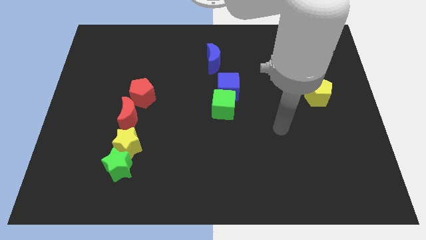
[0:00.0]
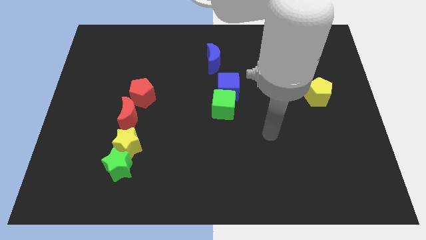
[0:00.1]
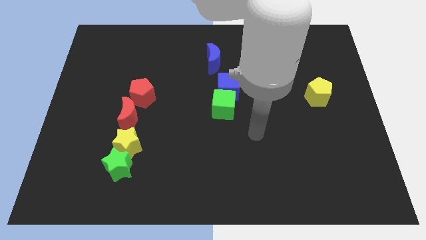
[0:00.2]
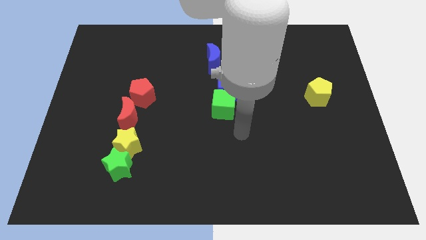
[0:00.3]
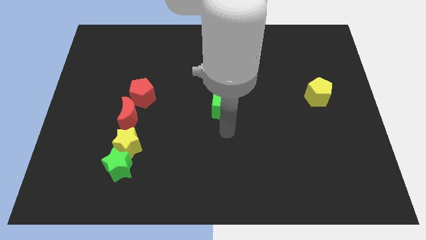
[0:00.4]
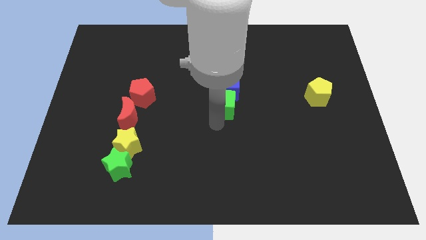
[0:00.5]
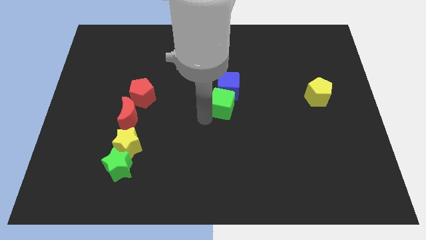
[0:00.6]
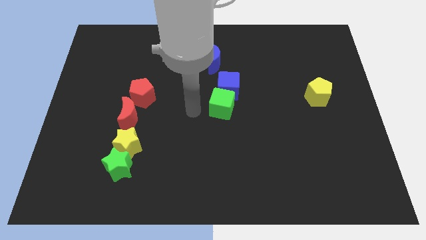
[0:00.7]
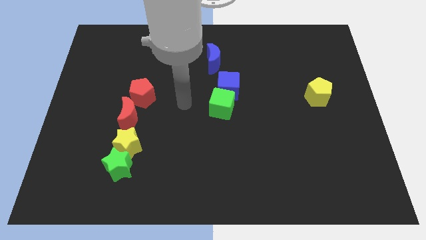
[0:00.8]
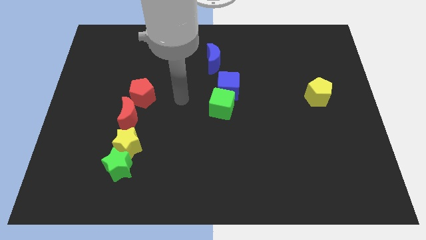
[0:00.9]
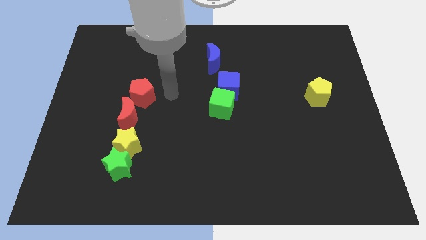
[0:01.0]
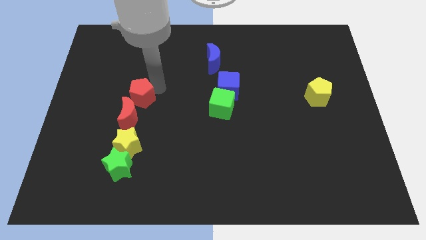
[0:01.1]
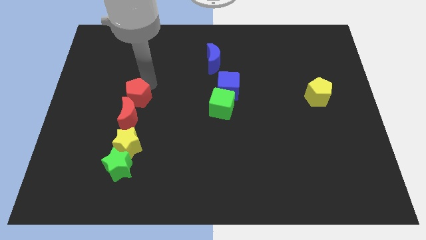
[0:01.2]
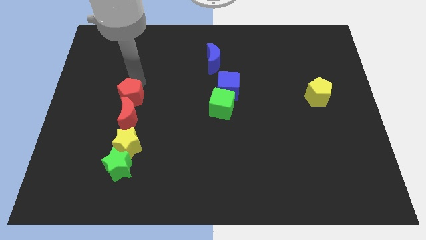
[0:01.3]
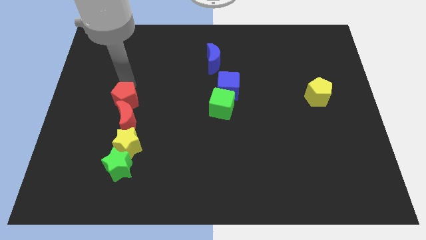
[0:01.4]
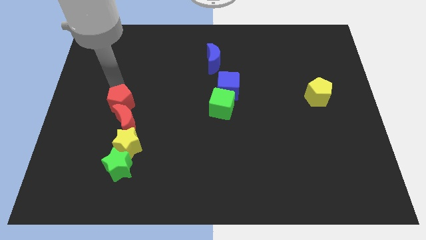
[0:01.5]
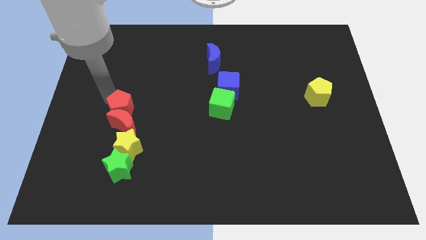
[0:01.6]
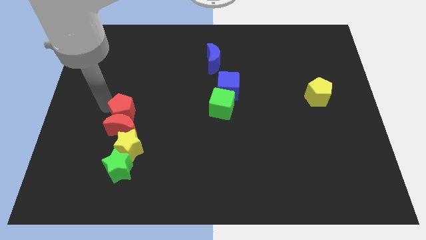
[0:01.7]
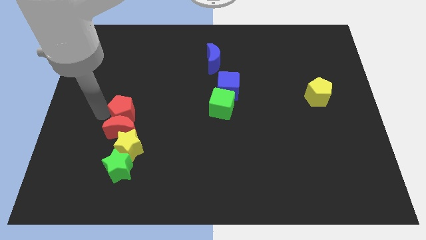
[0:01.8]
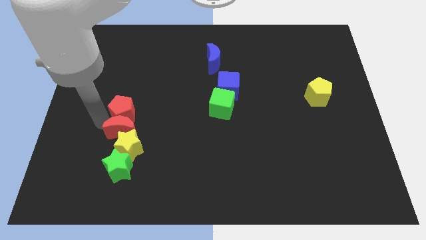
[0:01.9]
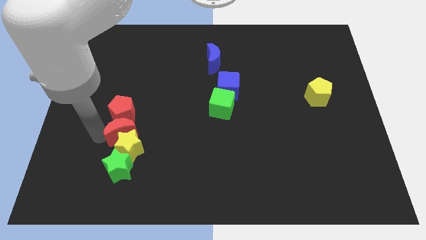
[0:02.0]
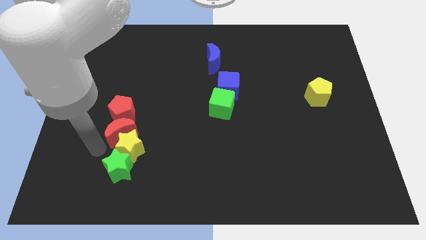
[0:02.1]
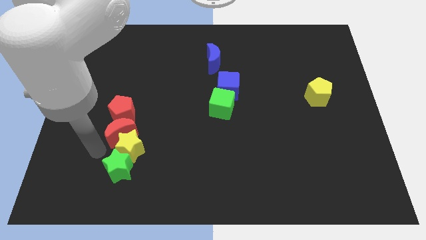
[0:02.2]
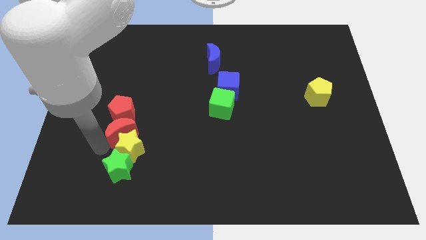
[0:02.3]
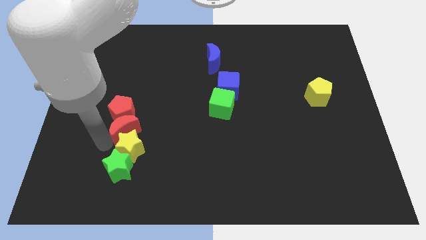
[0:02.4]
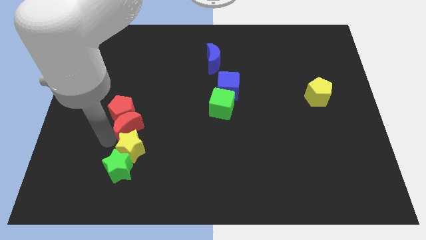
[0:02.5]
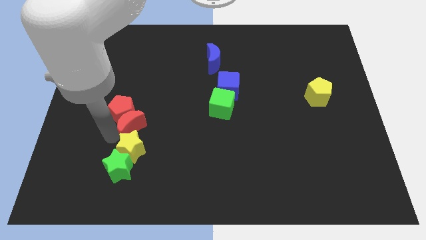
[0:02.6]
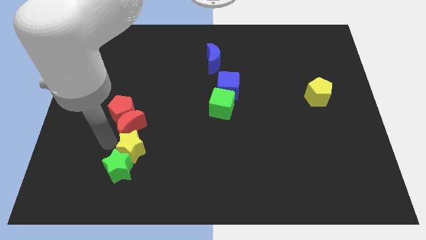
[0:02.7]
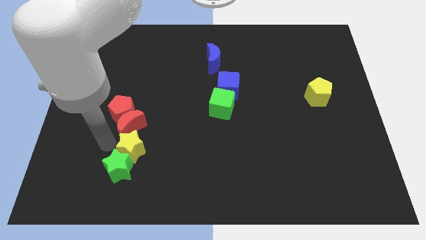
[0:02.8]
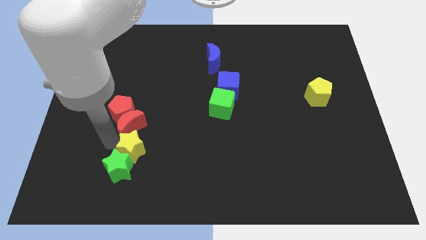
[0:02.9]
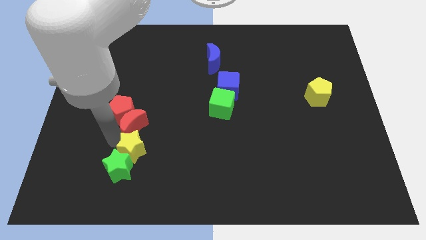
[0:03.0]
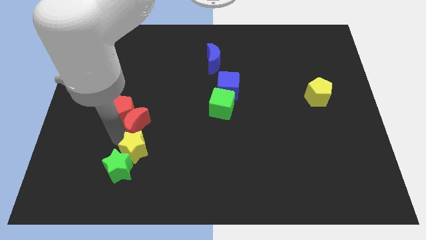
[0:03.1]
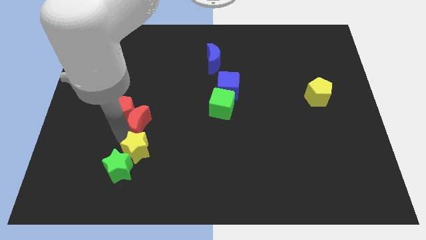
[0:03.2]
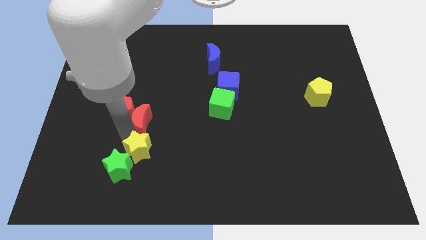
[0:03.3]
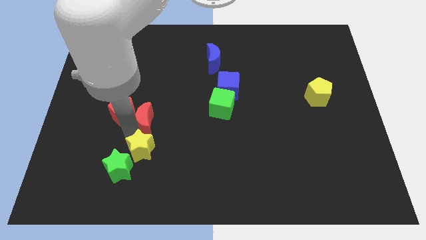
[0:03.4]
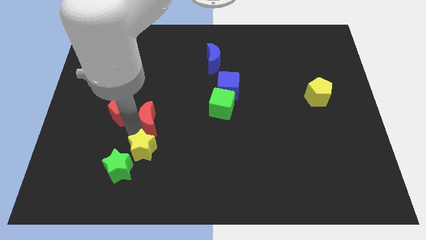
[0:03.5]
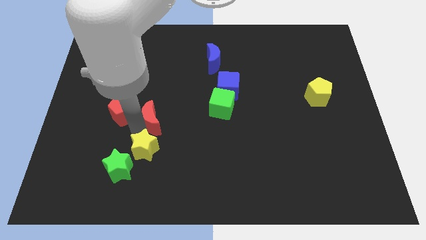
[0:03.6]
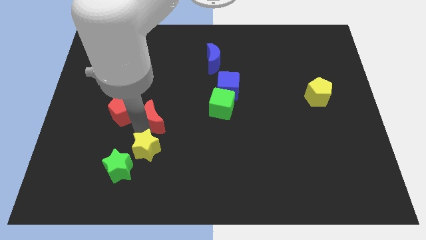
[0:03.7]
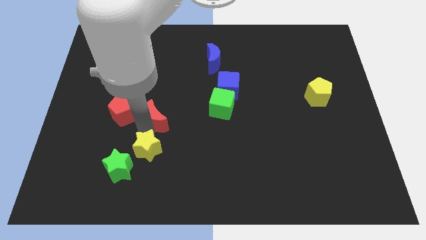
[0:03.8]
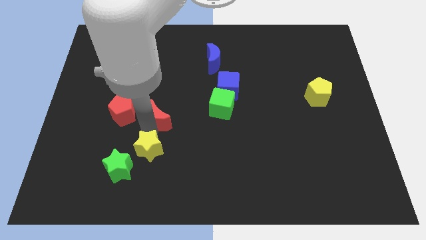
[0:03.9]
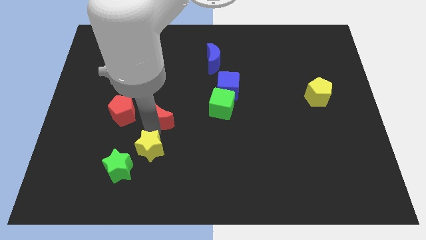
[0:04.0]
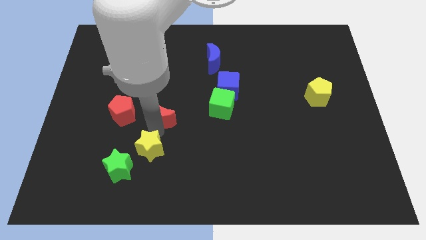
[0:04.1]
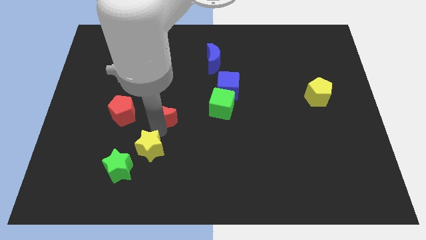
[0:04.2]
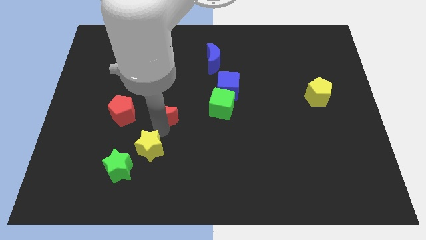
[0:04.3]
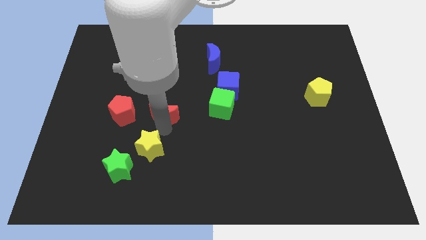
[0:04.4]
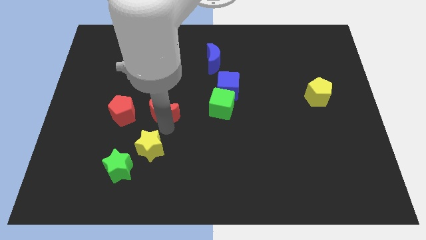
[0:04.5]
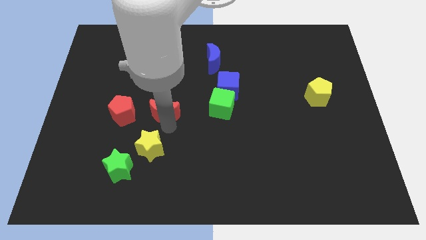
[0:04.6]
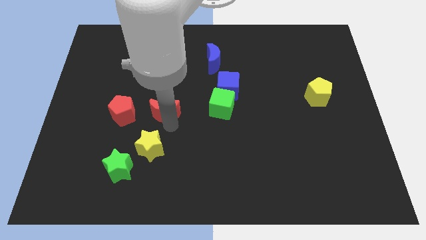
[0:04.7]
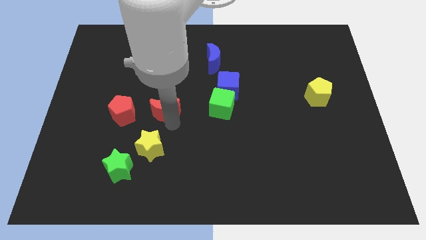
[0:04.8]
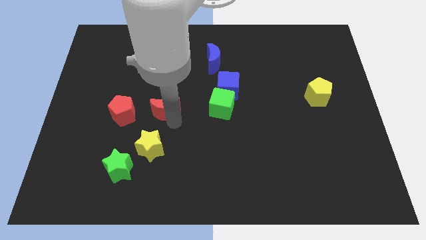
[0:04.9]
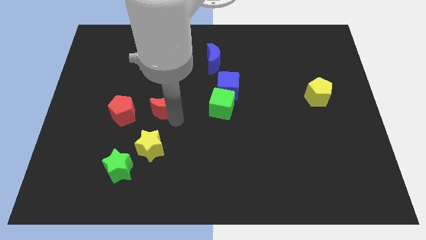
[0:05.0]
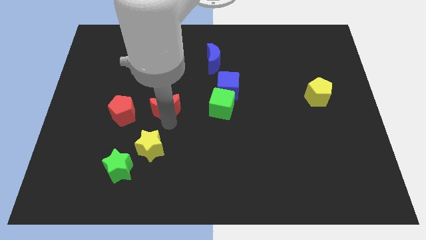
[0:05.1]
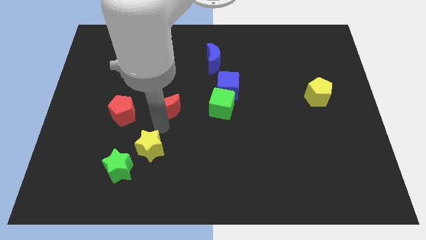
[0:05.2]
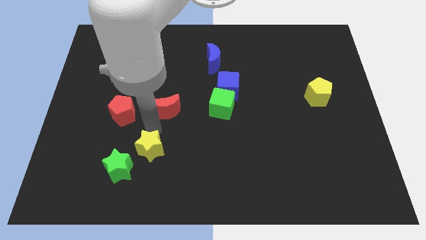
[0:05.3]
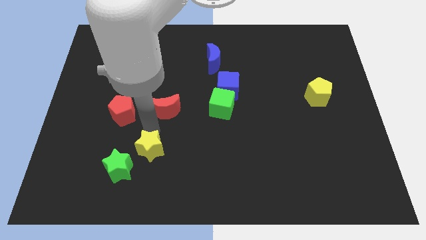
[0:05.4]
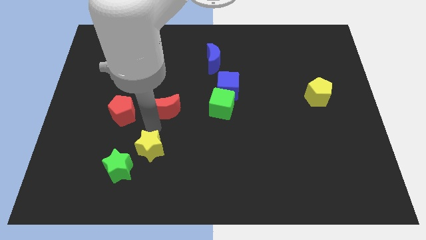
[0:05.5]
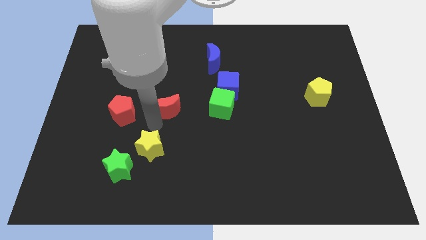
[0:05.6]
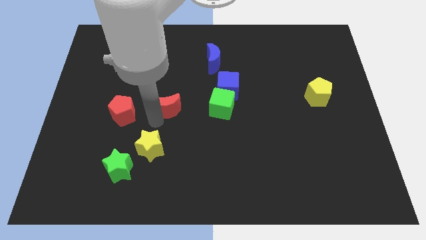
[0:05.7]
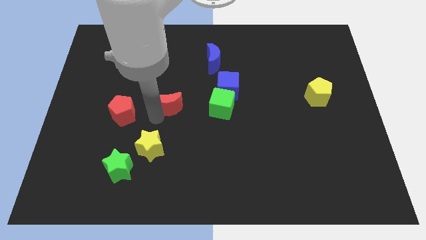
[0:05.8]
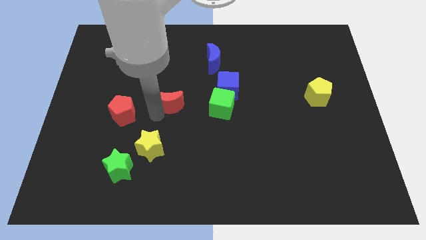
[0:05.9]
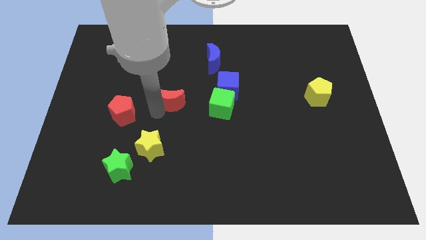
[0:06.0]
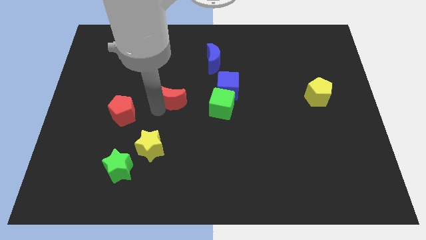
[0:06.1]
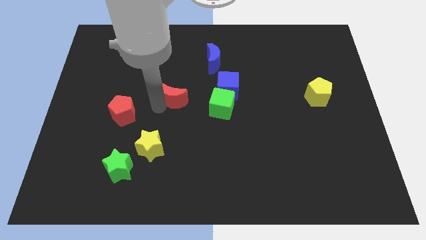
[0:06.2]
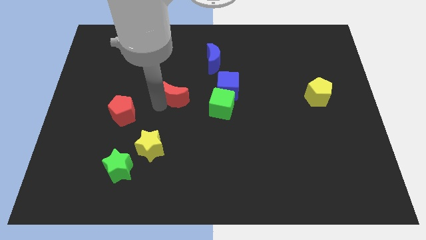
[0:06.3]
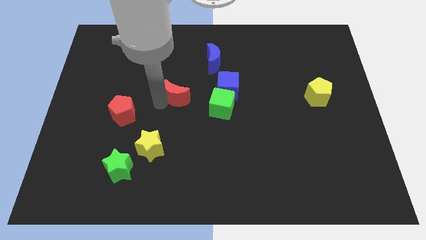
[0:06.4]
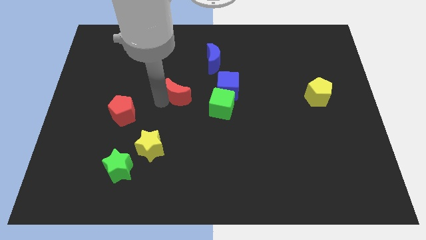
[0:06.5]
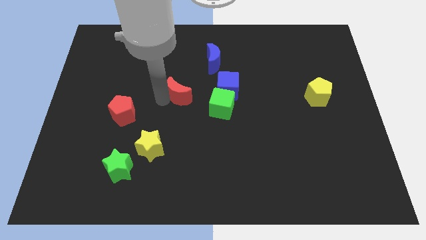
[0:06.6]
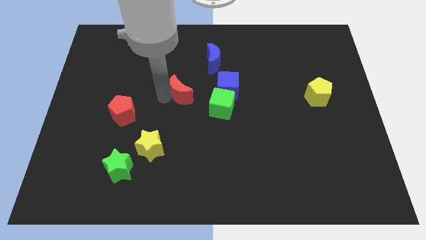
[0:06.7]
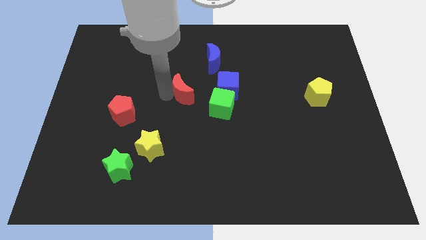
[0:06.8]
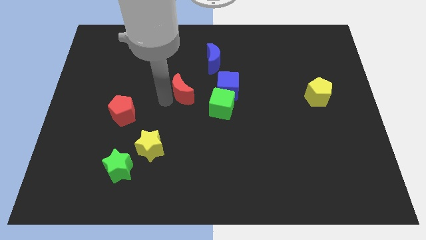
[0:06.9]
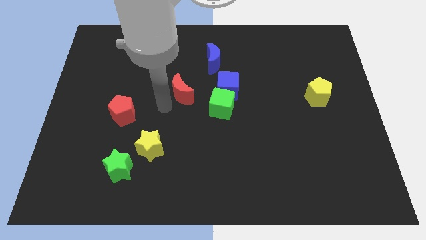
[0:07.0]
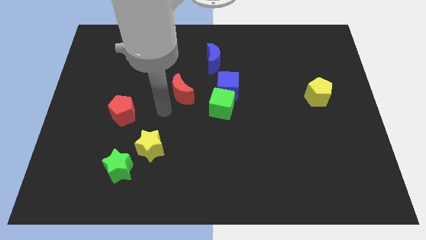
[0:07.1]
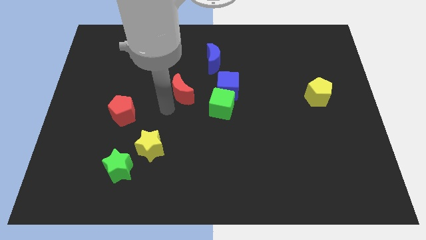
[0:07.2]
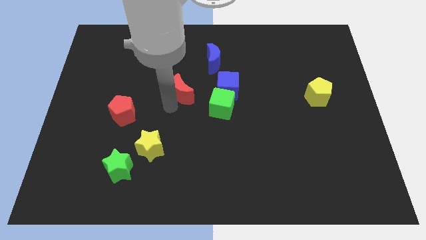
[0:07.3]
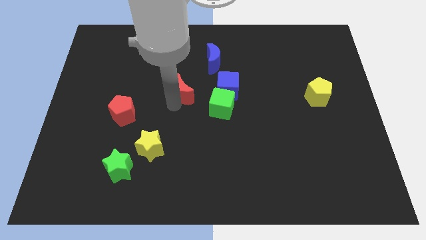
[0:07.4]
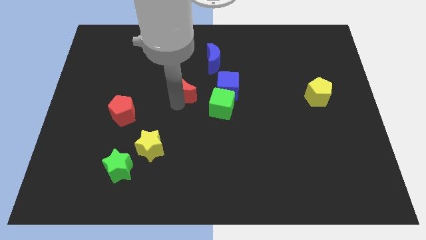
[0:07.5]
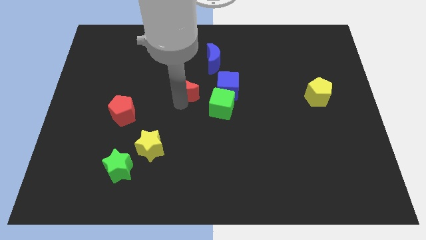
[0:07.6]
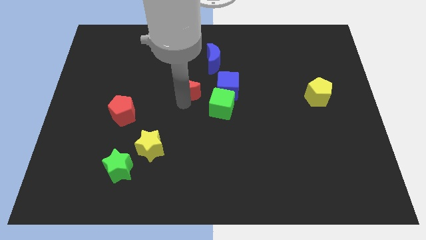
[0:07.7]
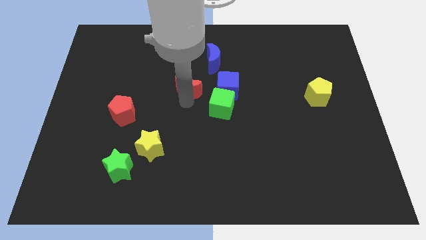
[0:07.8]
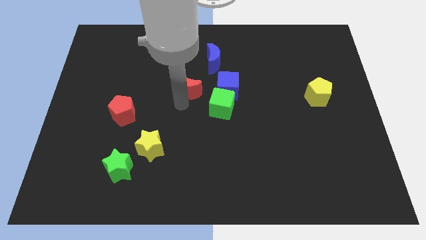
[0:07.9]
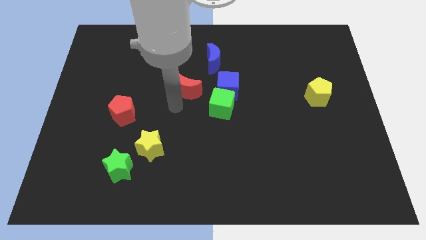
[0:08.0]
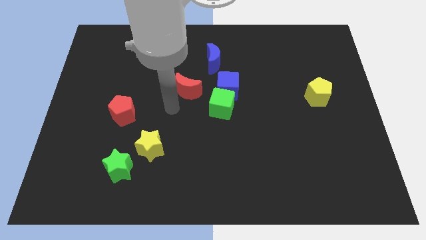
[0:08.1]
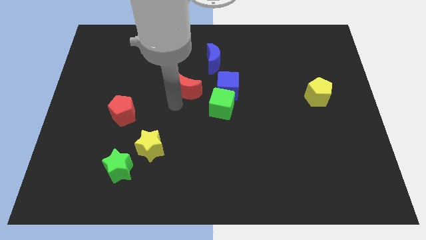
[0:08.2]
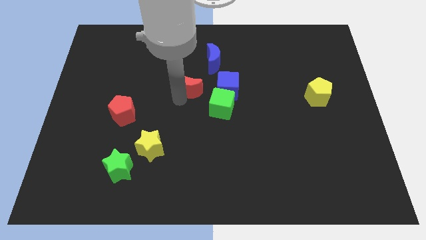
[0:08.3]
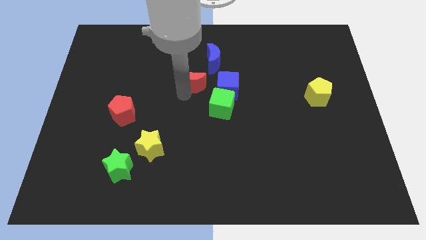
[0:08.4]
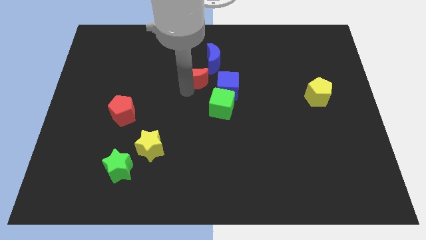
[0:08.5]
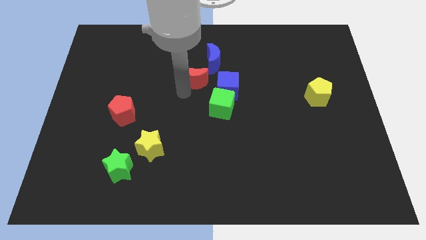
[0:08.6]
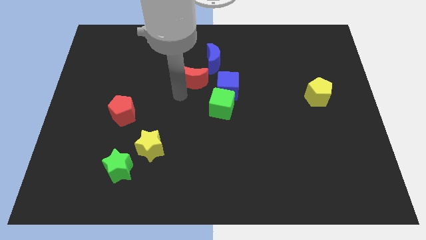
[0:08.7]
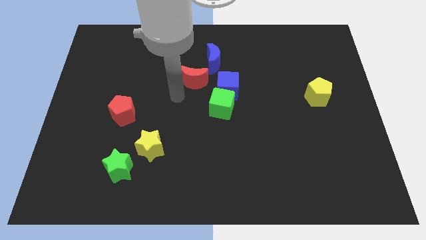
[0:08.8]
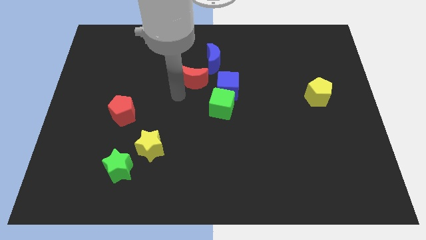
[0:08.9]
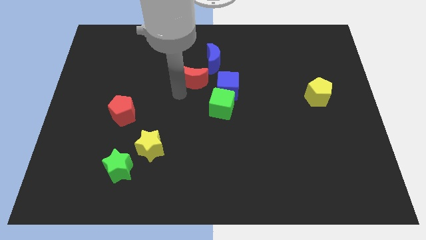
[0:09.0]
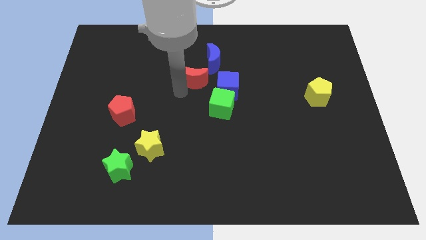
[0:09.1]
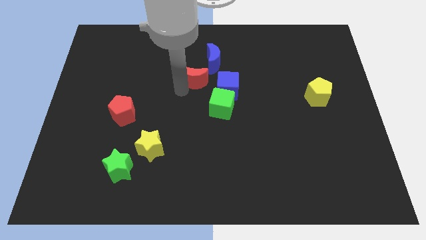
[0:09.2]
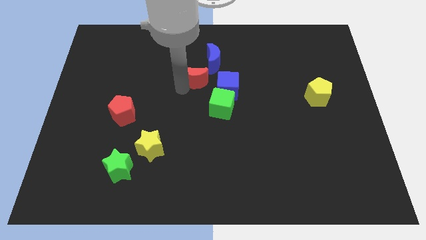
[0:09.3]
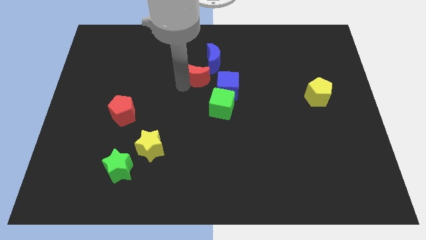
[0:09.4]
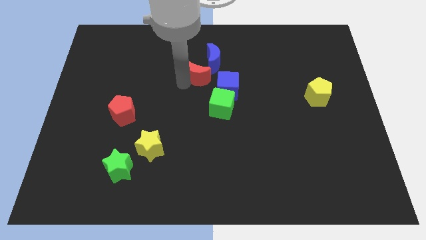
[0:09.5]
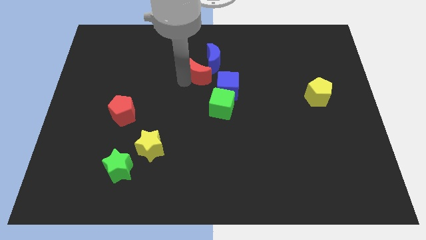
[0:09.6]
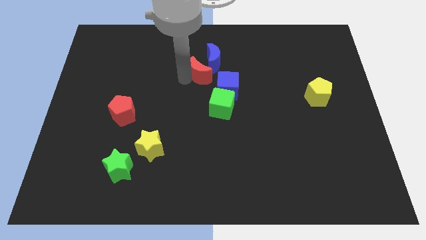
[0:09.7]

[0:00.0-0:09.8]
push the red moon next to the blue moon
